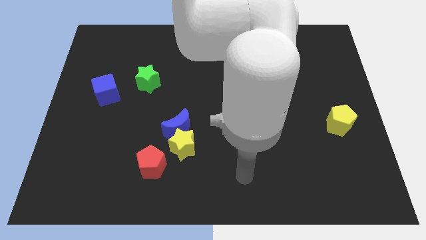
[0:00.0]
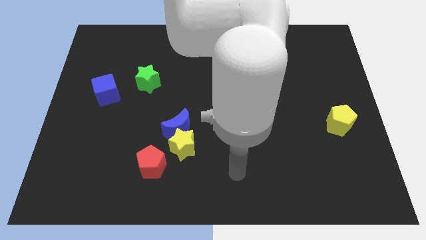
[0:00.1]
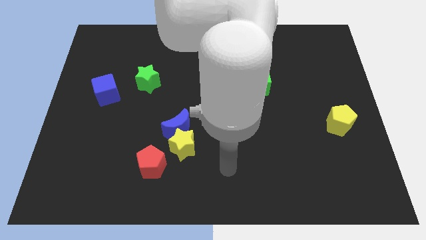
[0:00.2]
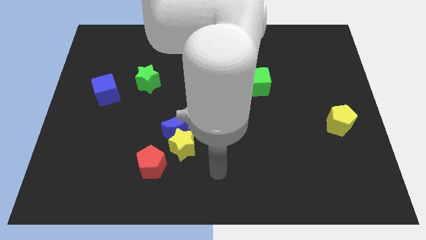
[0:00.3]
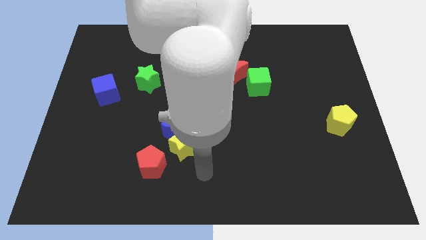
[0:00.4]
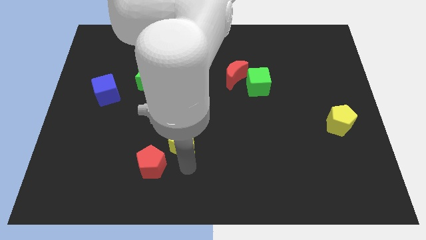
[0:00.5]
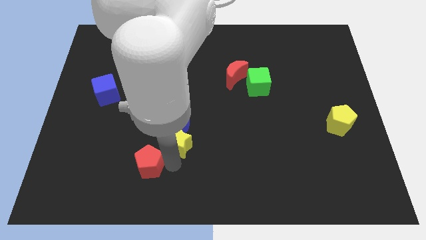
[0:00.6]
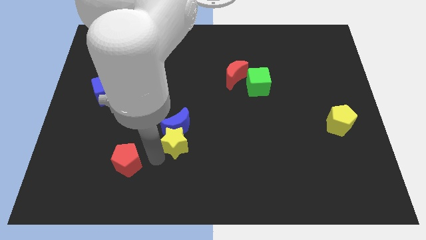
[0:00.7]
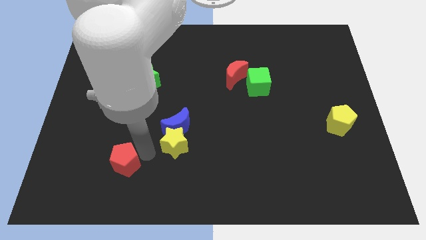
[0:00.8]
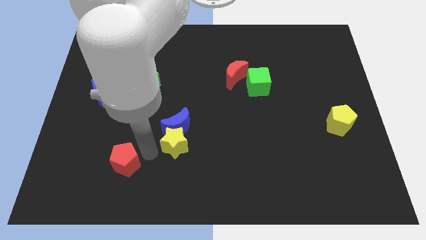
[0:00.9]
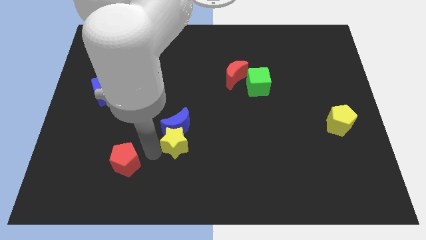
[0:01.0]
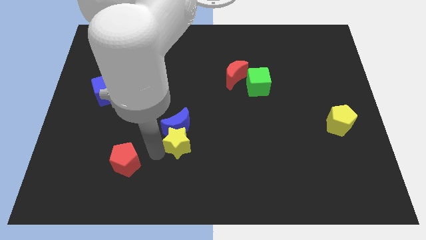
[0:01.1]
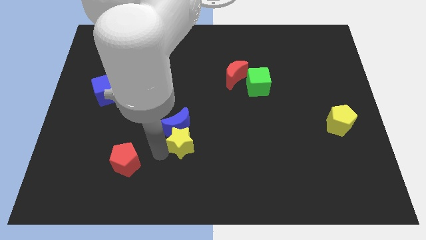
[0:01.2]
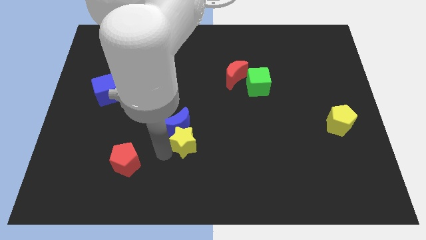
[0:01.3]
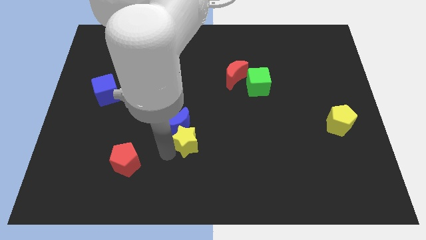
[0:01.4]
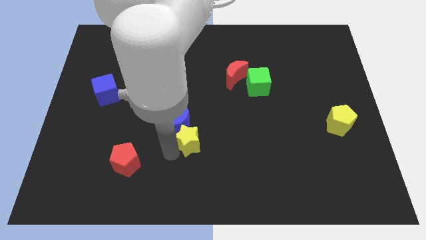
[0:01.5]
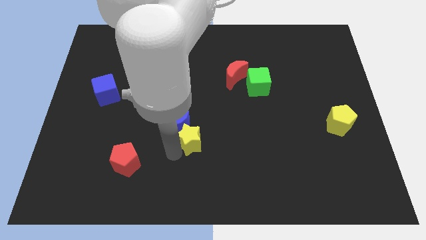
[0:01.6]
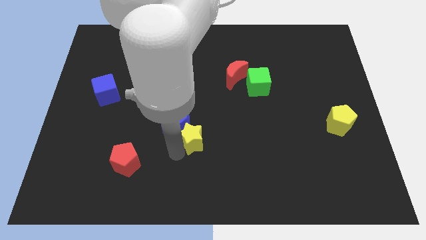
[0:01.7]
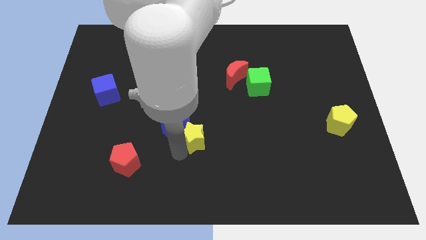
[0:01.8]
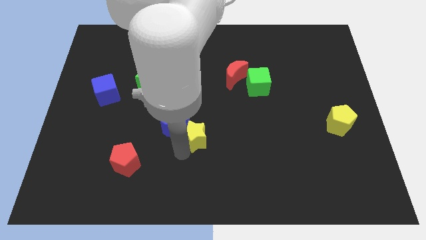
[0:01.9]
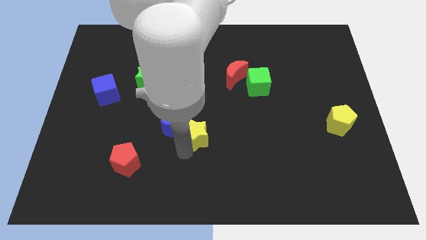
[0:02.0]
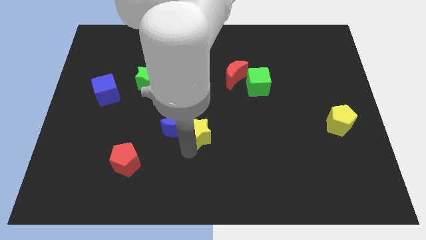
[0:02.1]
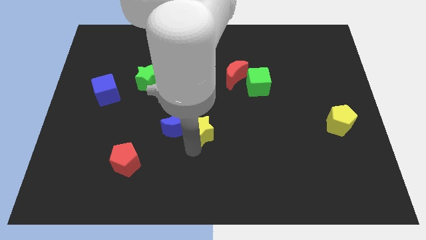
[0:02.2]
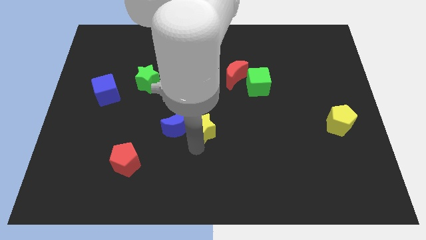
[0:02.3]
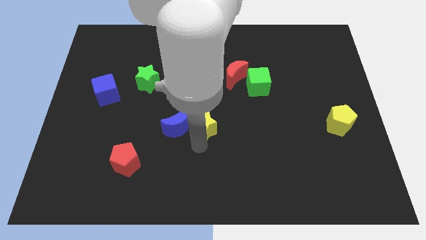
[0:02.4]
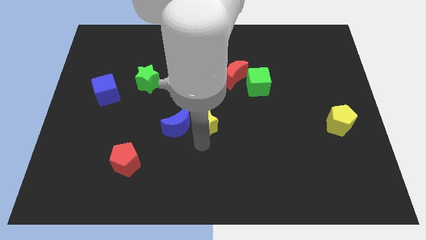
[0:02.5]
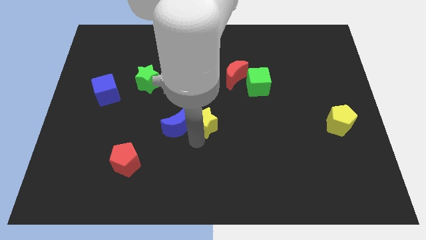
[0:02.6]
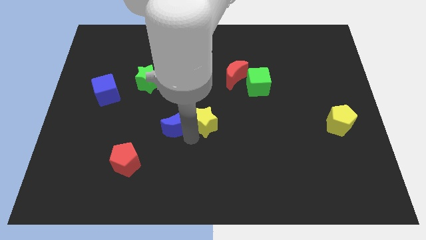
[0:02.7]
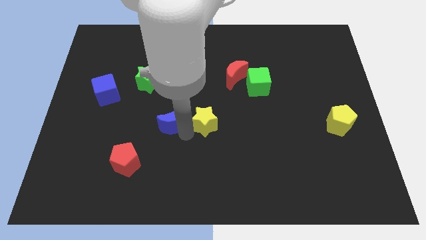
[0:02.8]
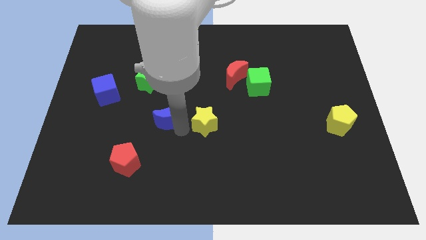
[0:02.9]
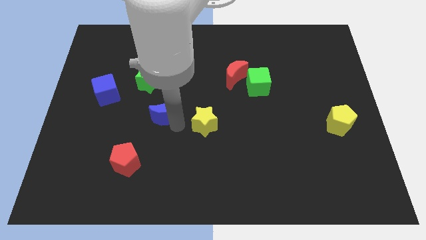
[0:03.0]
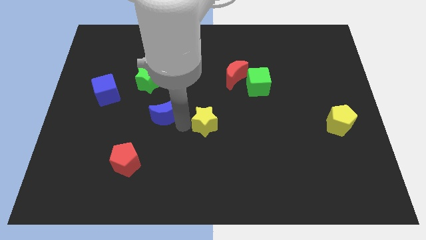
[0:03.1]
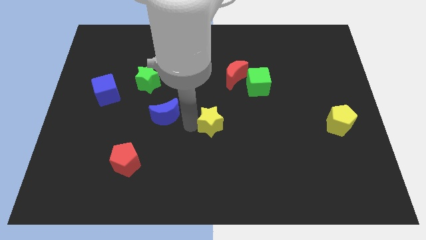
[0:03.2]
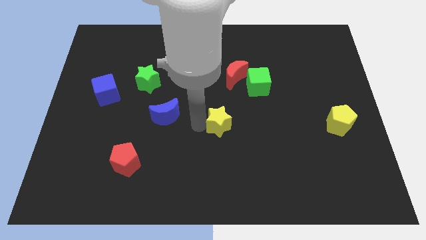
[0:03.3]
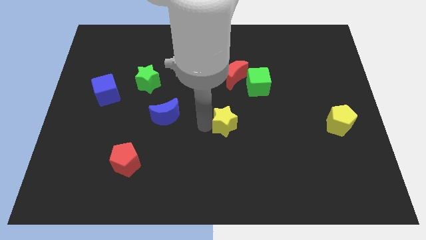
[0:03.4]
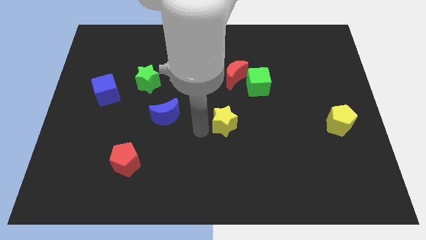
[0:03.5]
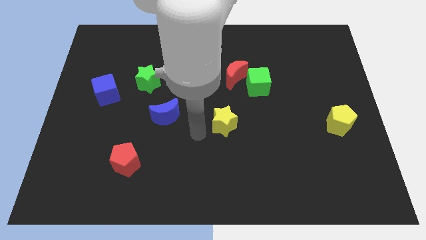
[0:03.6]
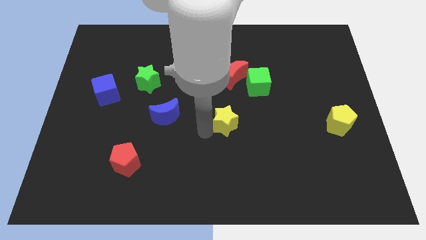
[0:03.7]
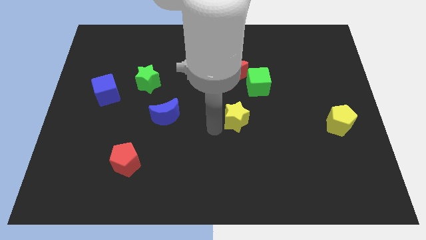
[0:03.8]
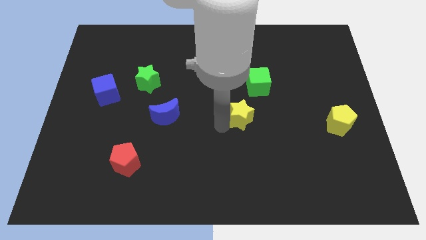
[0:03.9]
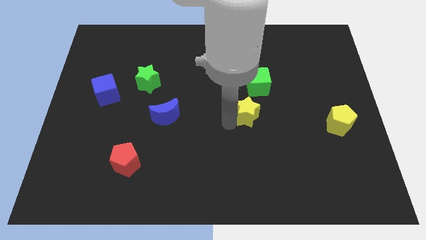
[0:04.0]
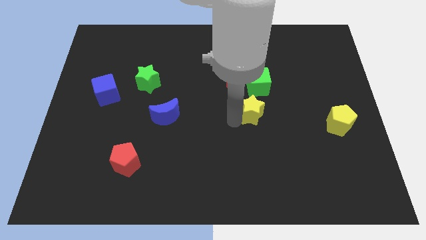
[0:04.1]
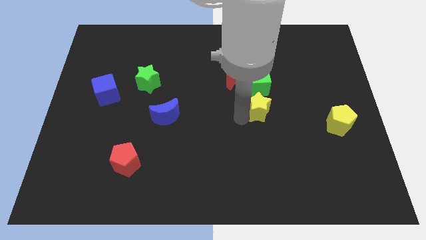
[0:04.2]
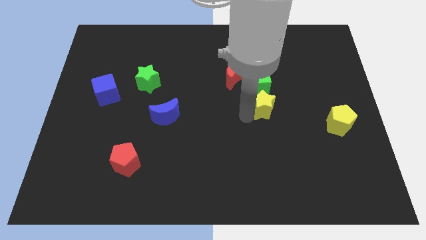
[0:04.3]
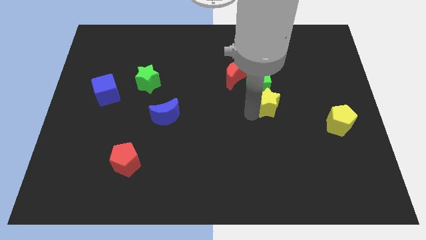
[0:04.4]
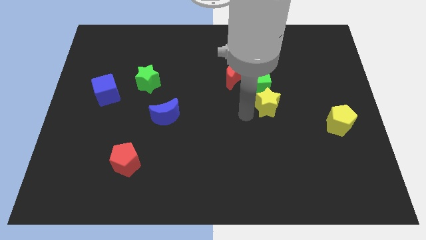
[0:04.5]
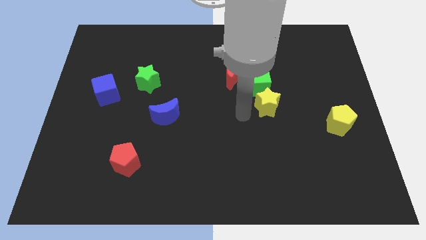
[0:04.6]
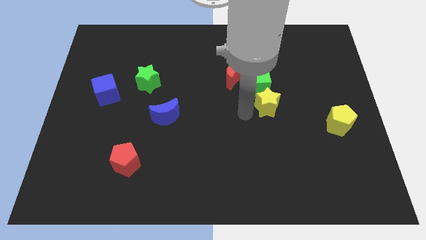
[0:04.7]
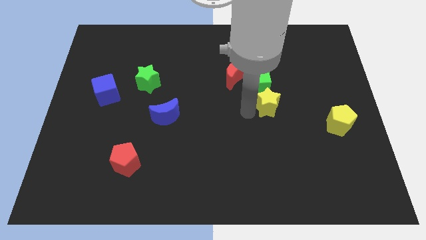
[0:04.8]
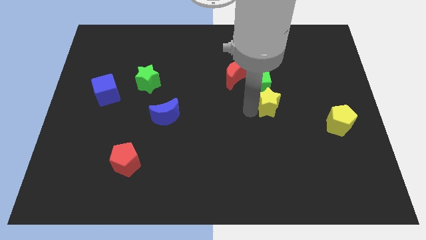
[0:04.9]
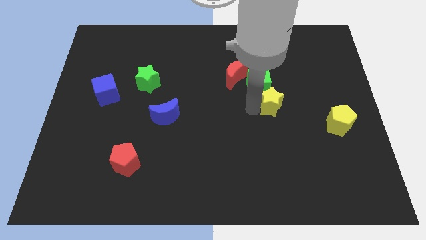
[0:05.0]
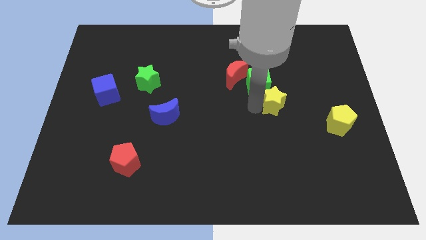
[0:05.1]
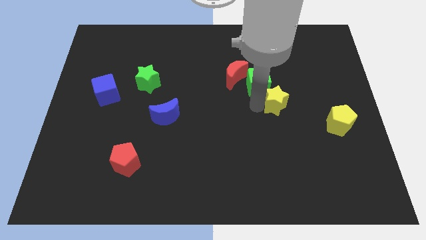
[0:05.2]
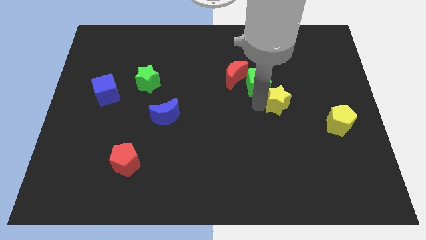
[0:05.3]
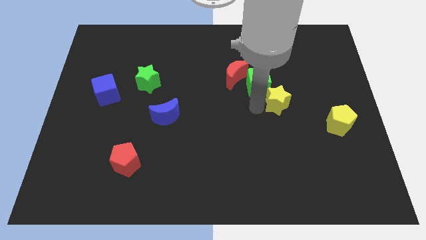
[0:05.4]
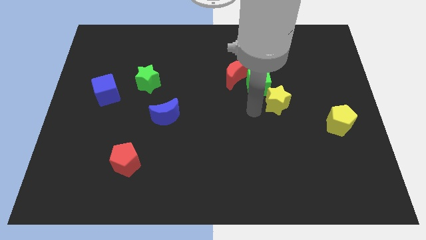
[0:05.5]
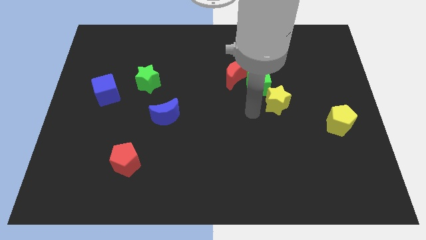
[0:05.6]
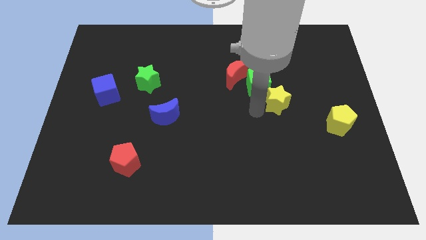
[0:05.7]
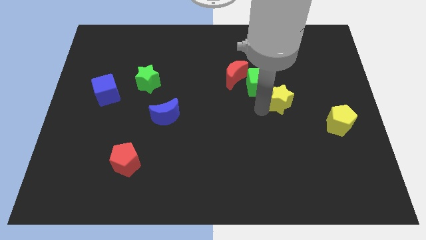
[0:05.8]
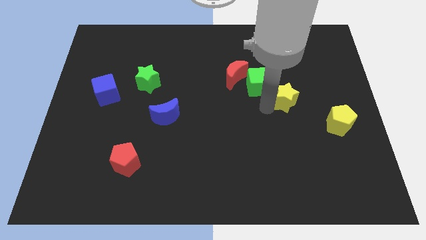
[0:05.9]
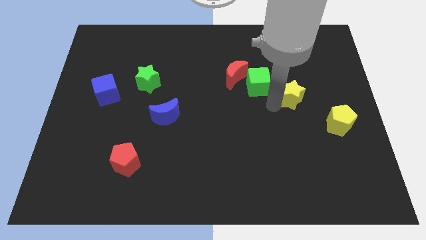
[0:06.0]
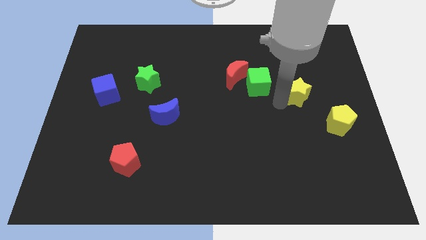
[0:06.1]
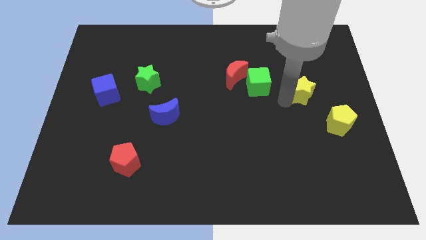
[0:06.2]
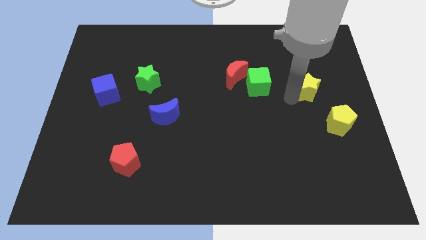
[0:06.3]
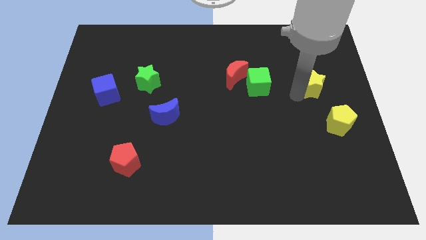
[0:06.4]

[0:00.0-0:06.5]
put the yellow star above the yellow pentagon

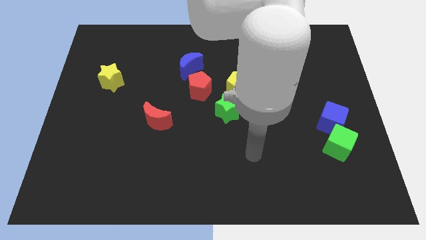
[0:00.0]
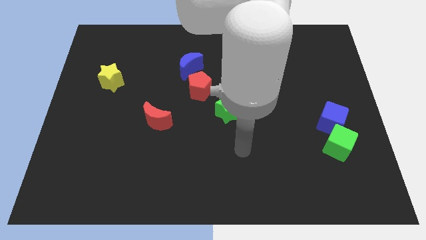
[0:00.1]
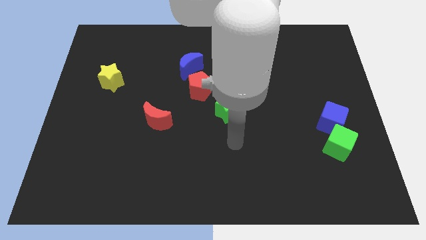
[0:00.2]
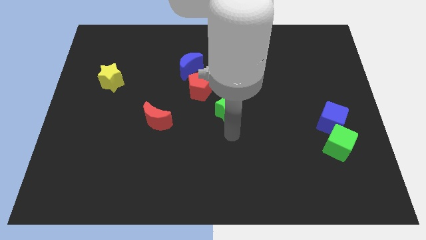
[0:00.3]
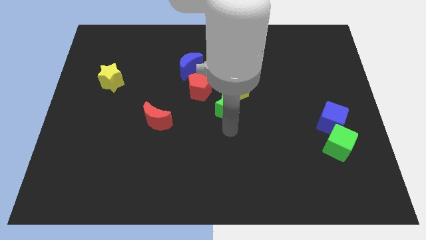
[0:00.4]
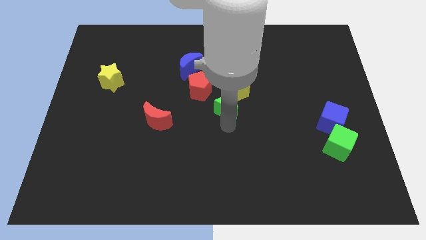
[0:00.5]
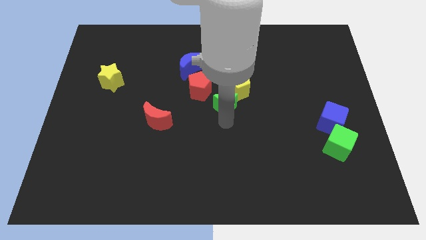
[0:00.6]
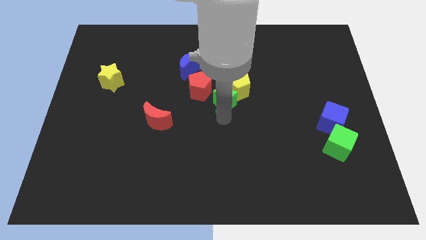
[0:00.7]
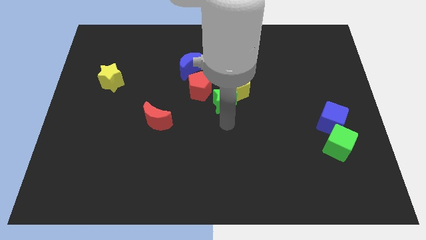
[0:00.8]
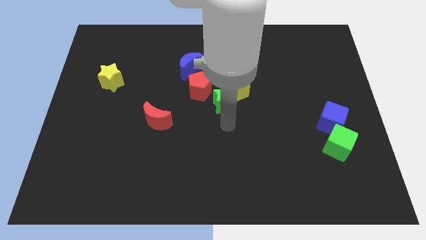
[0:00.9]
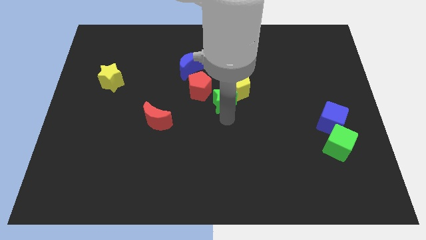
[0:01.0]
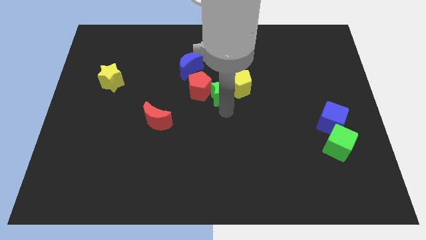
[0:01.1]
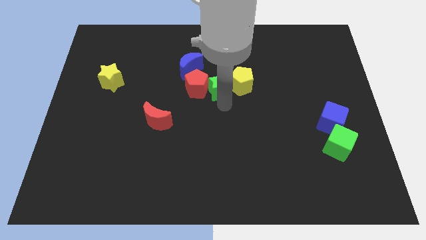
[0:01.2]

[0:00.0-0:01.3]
push the green star to the top right side of the red pentagon
